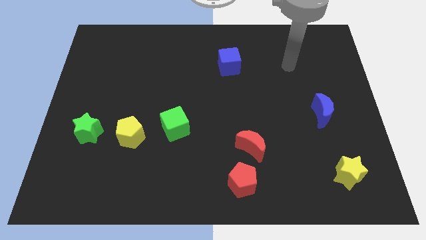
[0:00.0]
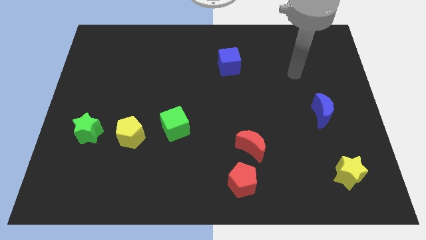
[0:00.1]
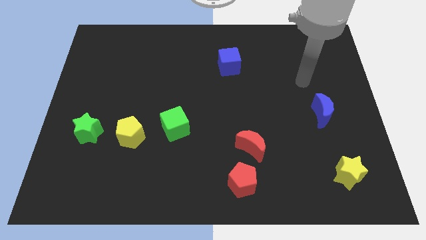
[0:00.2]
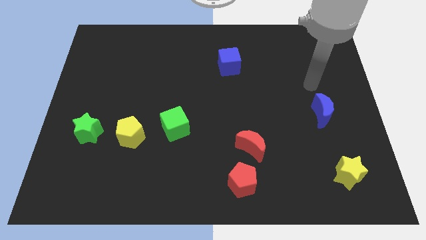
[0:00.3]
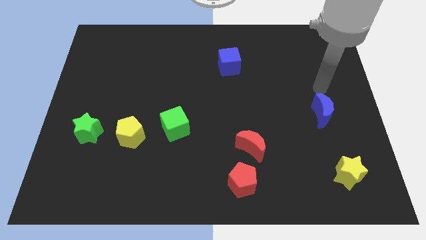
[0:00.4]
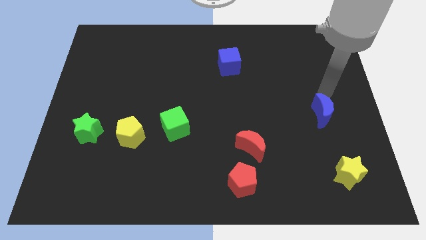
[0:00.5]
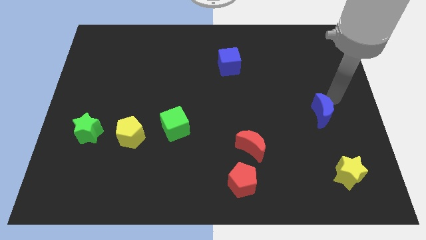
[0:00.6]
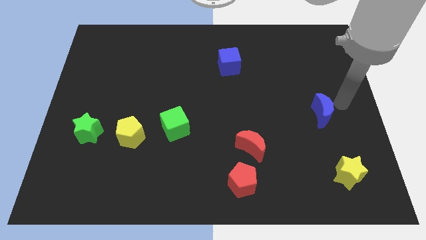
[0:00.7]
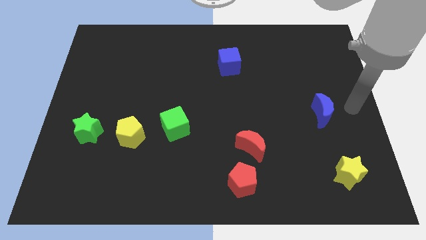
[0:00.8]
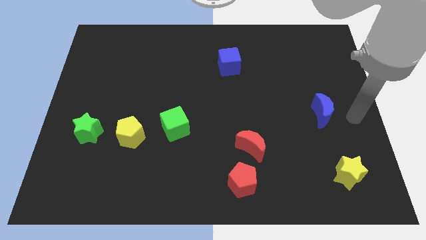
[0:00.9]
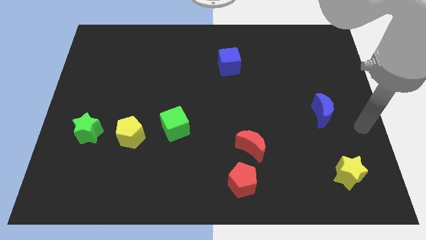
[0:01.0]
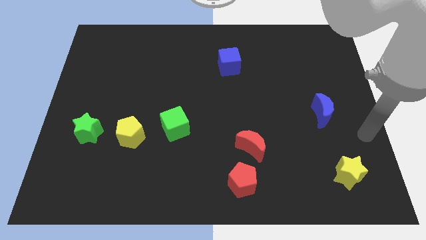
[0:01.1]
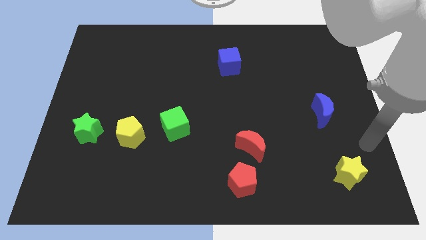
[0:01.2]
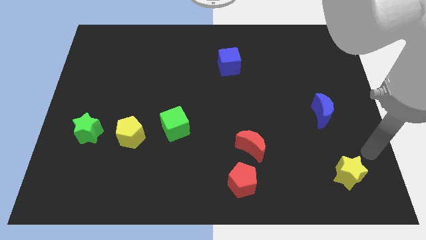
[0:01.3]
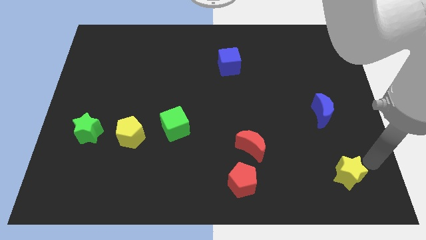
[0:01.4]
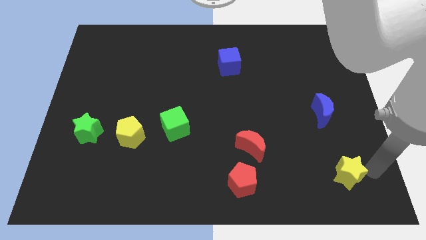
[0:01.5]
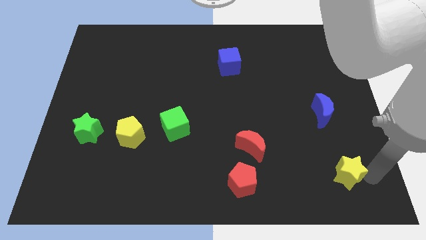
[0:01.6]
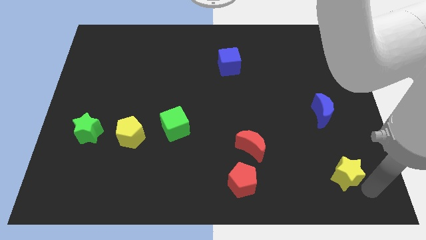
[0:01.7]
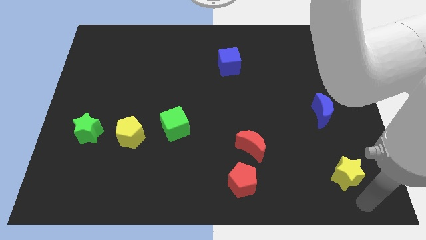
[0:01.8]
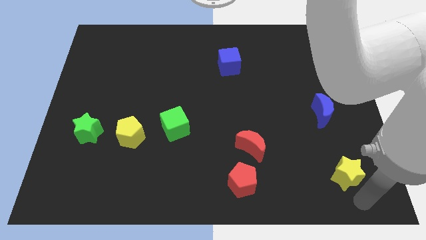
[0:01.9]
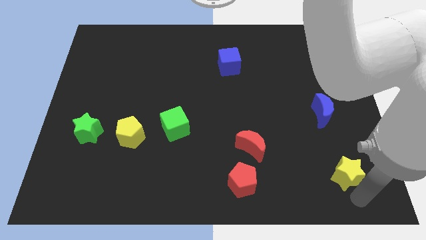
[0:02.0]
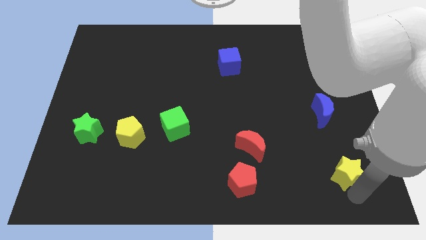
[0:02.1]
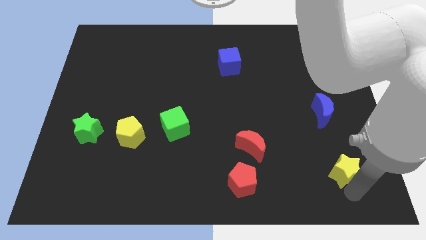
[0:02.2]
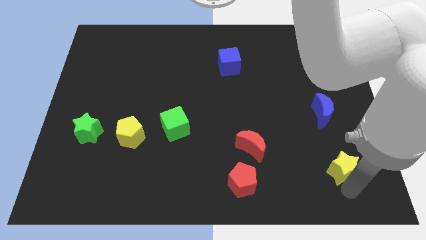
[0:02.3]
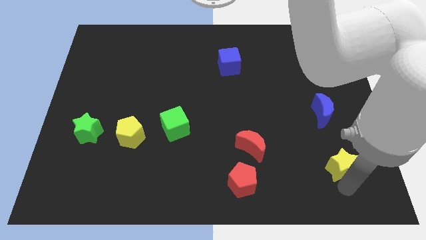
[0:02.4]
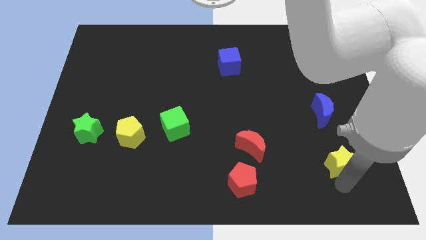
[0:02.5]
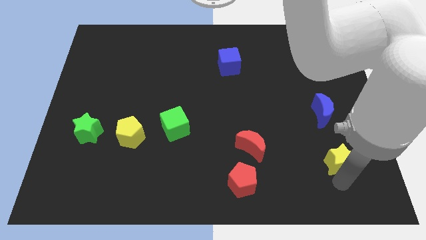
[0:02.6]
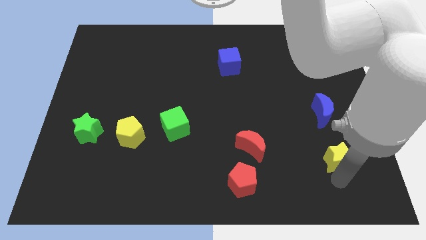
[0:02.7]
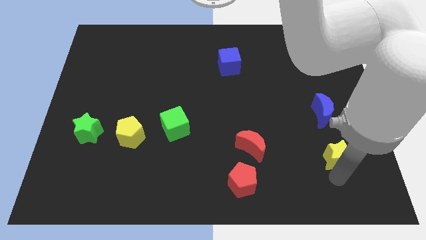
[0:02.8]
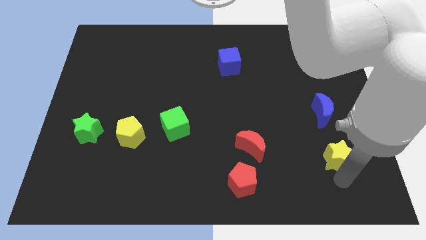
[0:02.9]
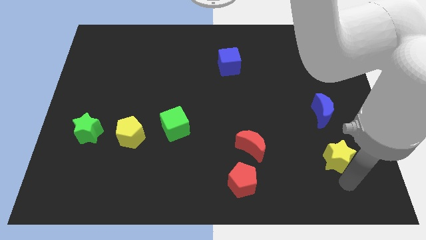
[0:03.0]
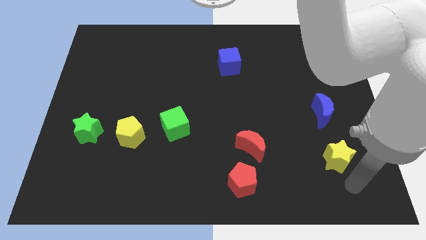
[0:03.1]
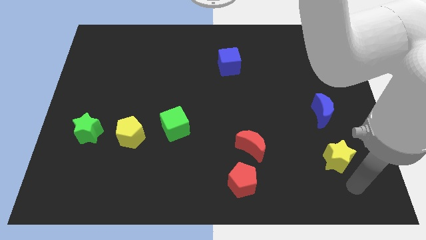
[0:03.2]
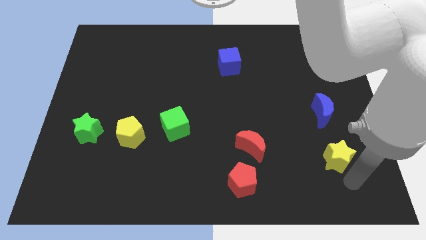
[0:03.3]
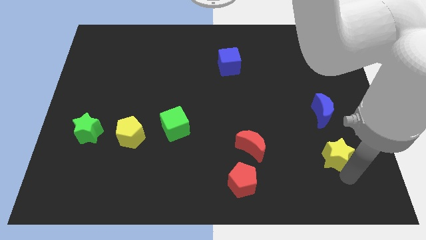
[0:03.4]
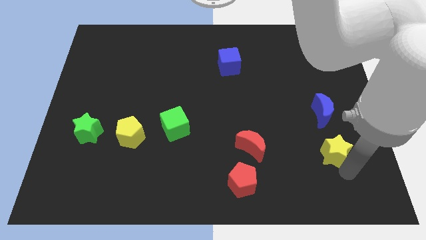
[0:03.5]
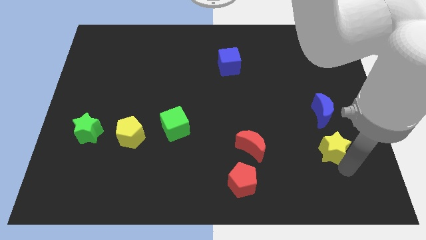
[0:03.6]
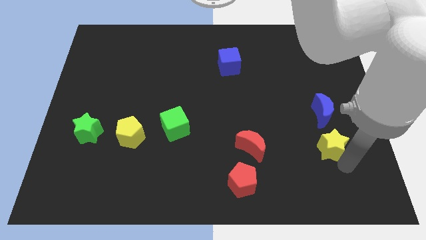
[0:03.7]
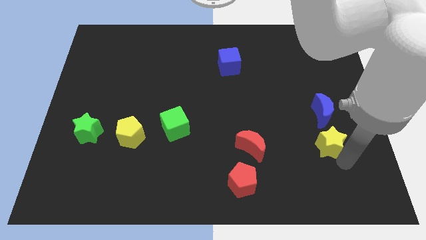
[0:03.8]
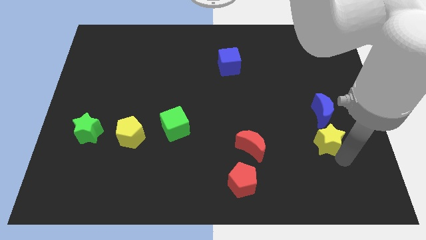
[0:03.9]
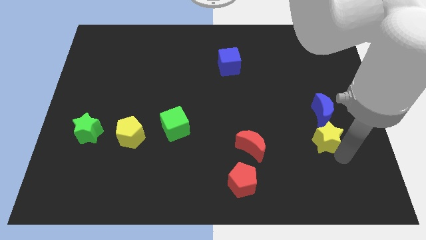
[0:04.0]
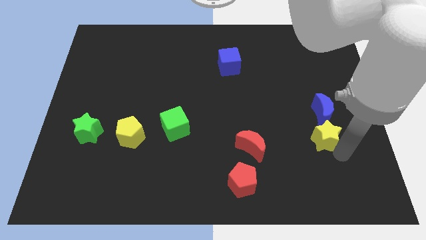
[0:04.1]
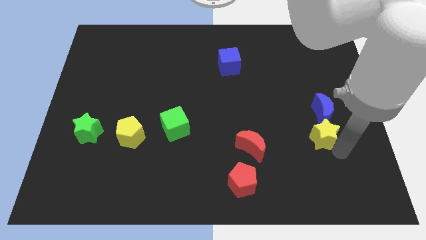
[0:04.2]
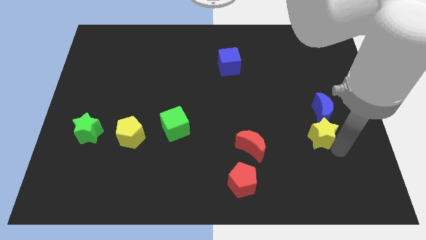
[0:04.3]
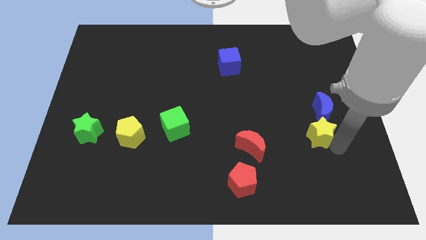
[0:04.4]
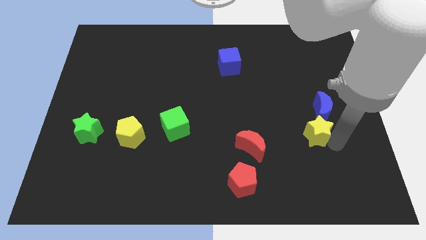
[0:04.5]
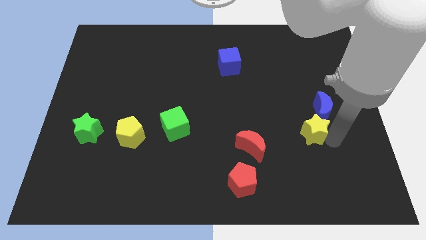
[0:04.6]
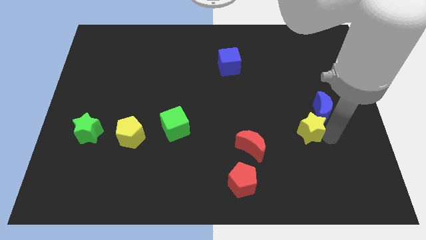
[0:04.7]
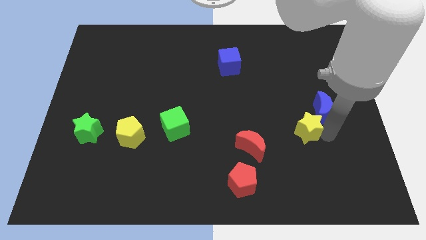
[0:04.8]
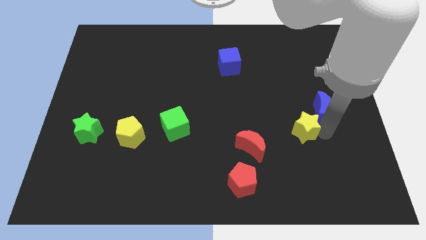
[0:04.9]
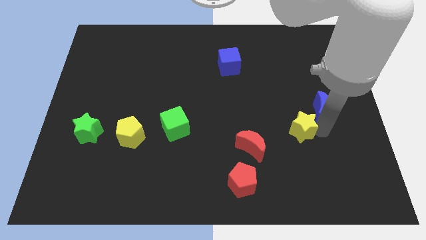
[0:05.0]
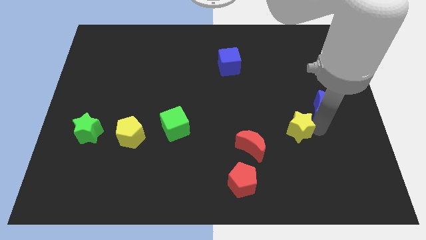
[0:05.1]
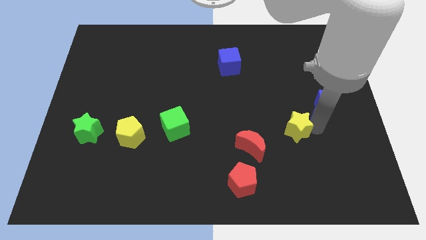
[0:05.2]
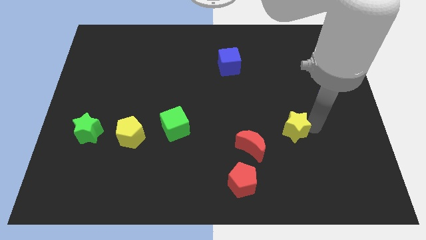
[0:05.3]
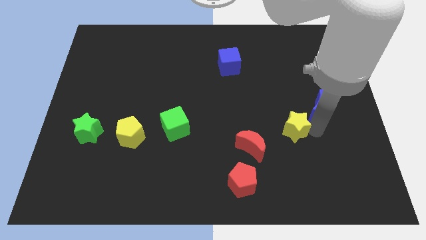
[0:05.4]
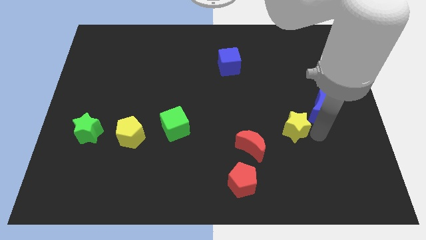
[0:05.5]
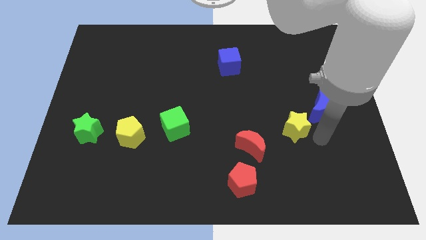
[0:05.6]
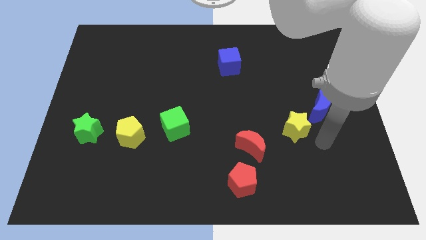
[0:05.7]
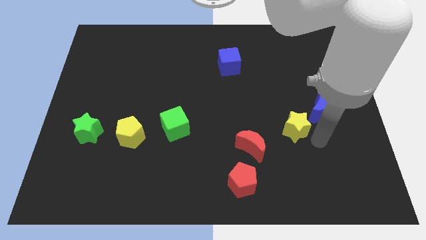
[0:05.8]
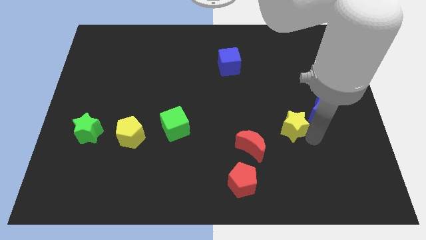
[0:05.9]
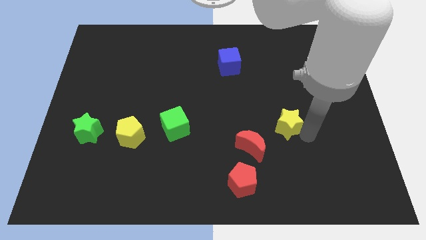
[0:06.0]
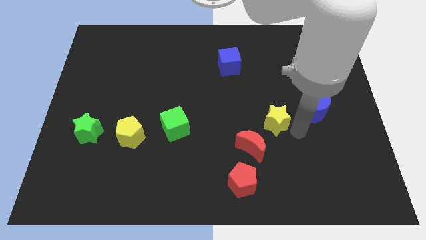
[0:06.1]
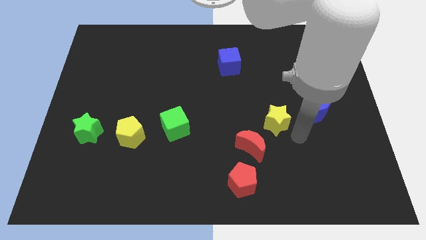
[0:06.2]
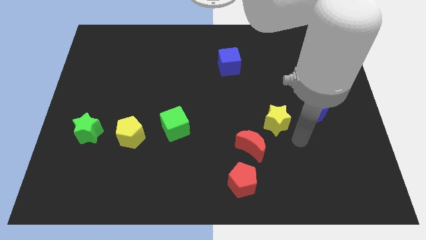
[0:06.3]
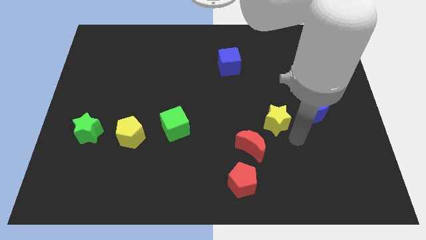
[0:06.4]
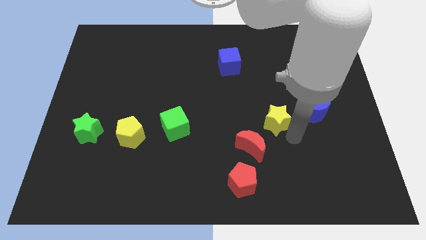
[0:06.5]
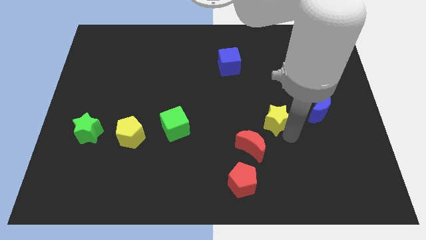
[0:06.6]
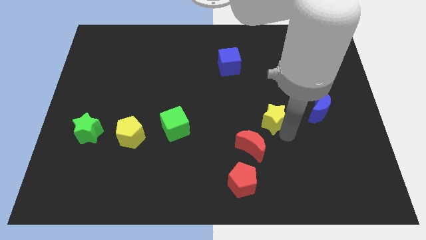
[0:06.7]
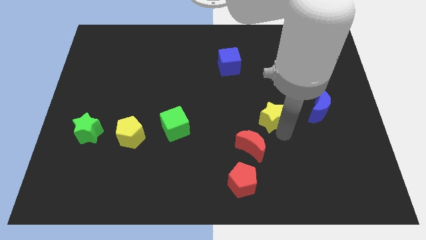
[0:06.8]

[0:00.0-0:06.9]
push the yellow star upwards and left

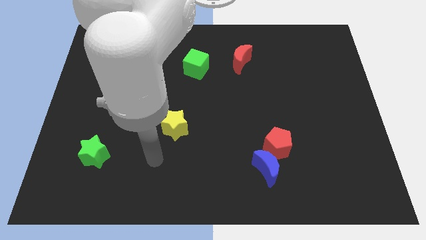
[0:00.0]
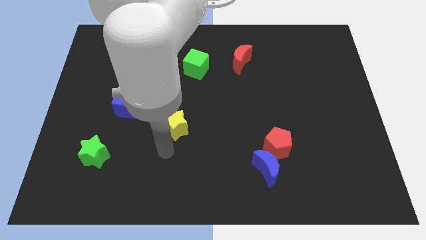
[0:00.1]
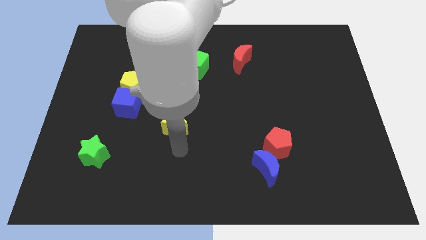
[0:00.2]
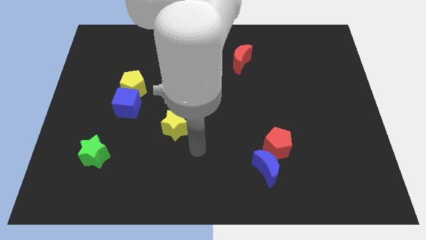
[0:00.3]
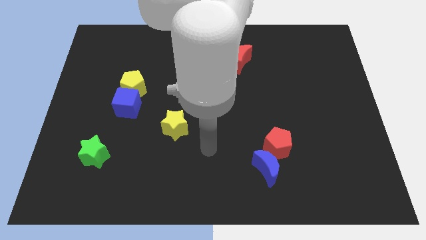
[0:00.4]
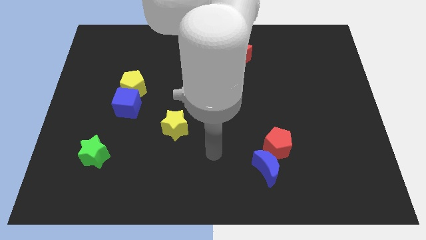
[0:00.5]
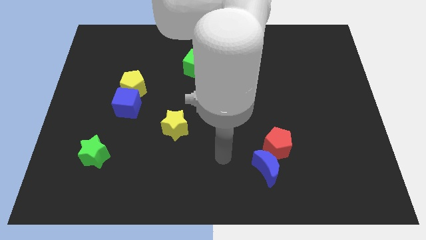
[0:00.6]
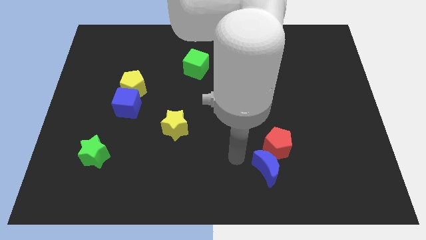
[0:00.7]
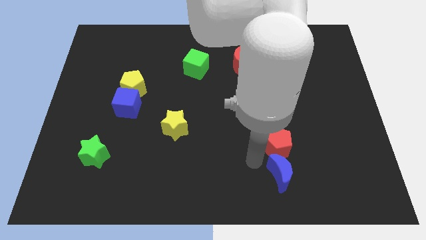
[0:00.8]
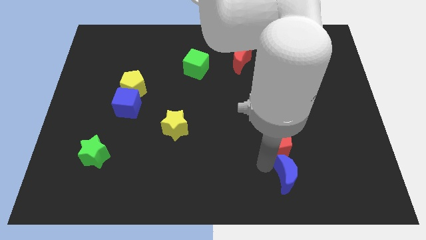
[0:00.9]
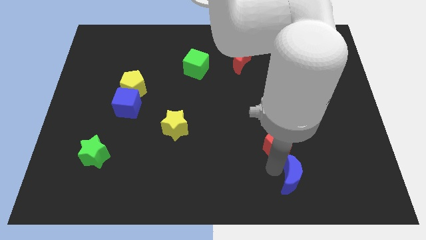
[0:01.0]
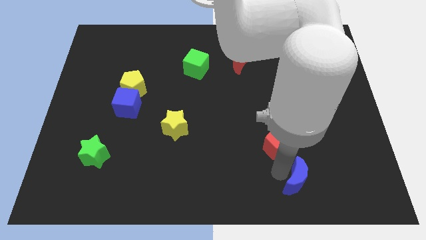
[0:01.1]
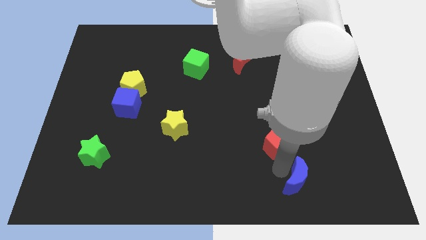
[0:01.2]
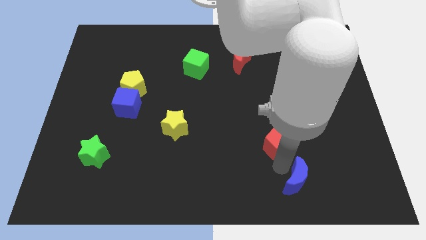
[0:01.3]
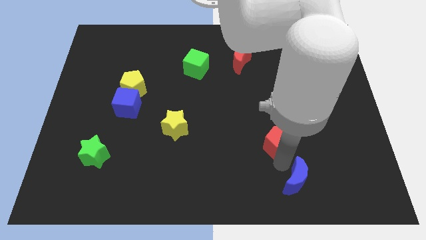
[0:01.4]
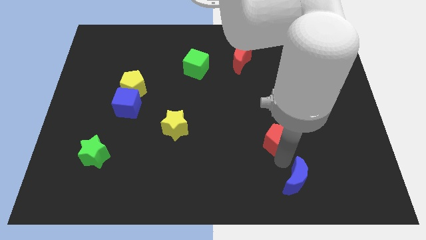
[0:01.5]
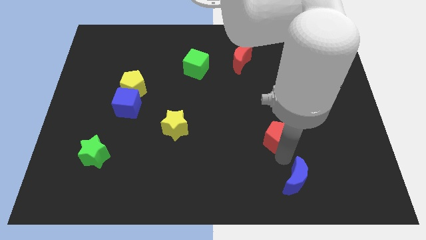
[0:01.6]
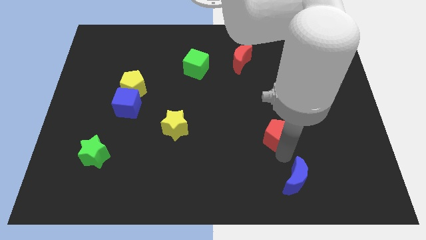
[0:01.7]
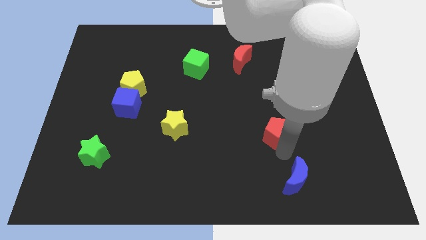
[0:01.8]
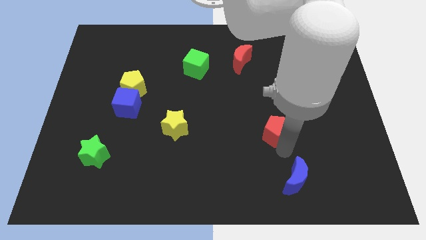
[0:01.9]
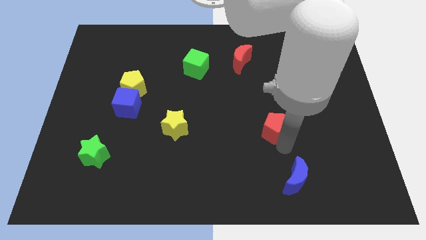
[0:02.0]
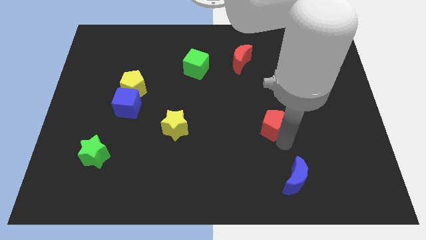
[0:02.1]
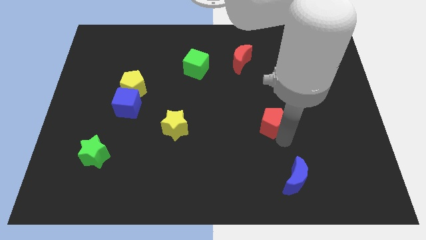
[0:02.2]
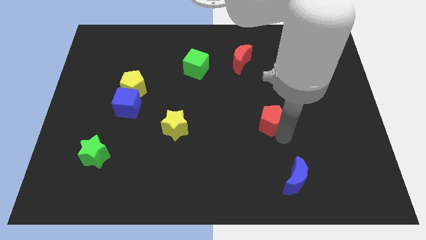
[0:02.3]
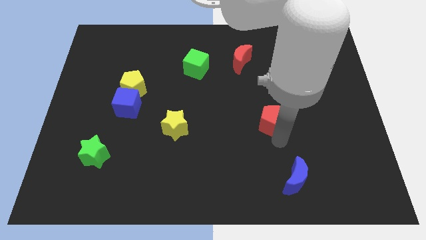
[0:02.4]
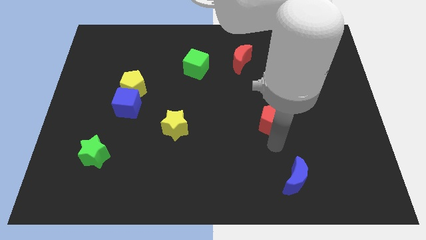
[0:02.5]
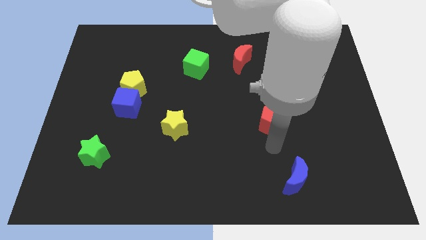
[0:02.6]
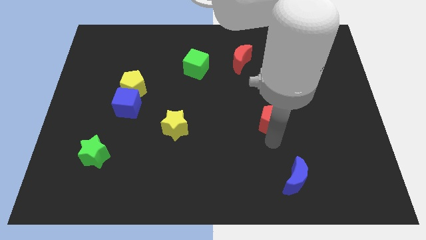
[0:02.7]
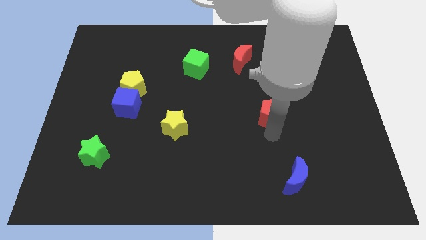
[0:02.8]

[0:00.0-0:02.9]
slide the red pentagon a little bit up
